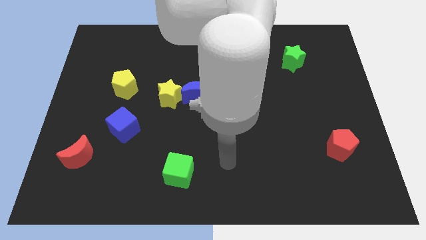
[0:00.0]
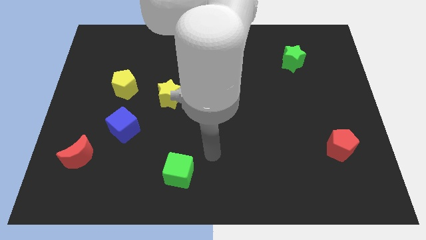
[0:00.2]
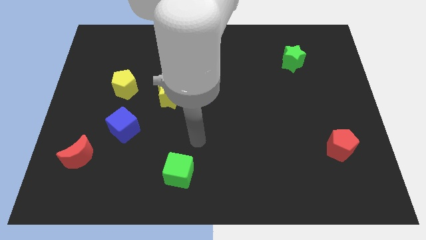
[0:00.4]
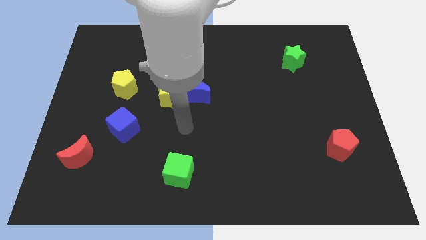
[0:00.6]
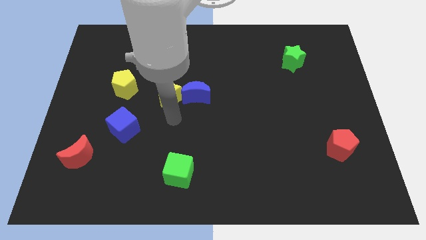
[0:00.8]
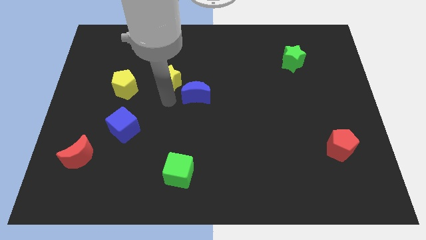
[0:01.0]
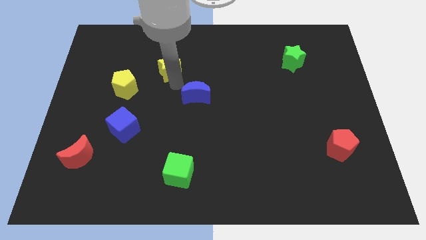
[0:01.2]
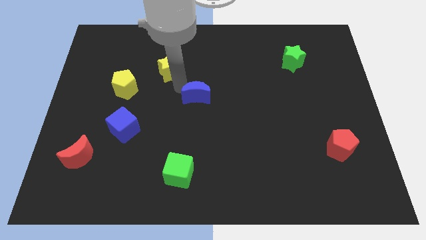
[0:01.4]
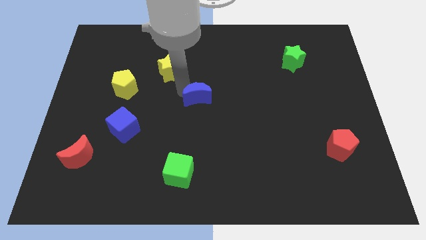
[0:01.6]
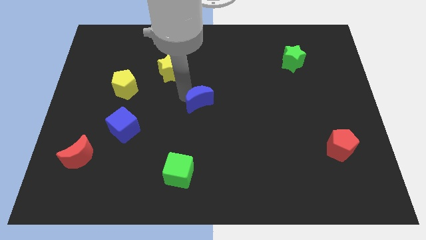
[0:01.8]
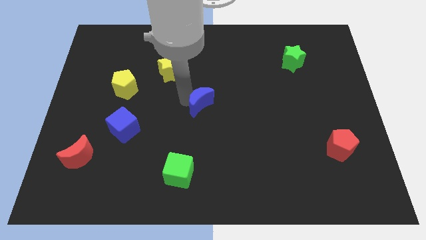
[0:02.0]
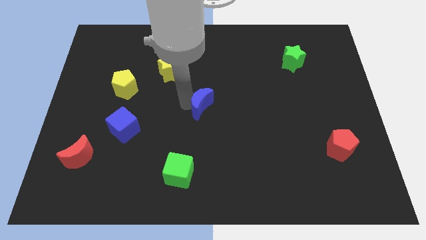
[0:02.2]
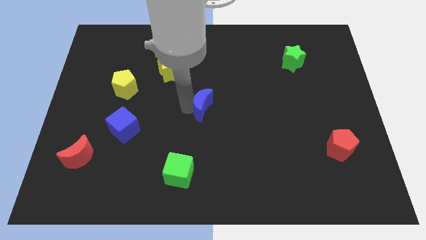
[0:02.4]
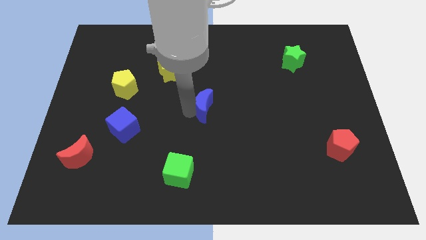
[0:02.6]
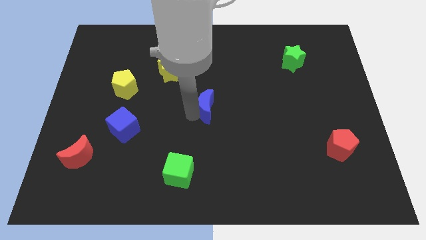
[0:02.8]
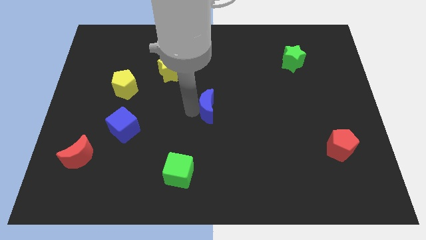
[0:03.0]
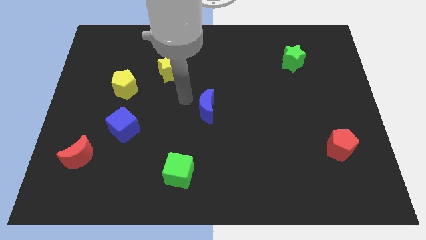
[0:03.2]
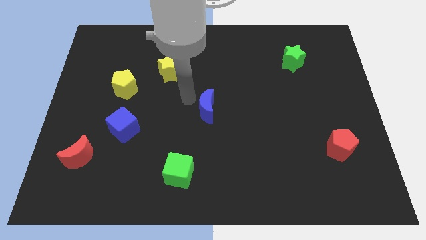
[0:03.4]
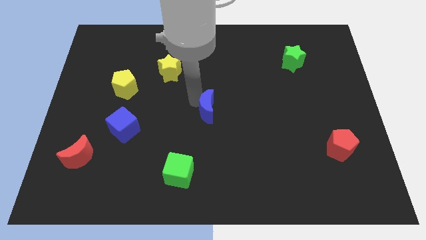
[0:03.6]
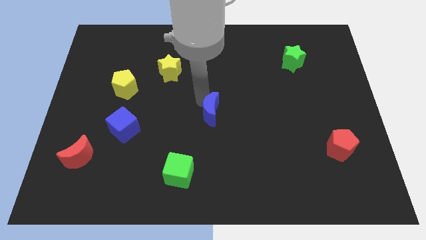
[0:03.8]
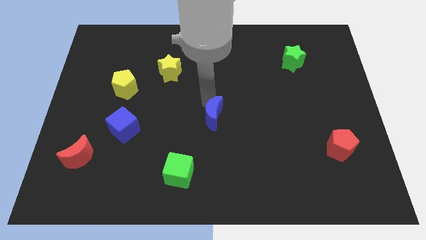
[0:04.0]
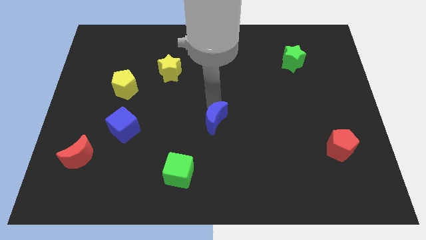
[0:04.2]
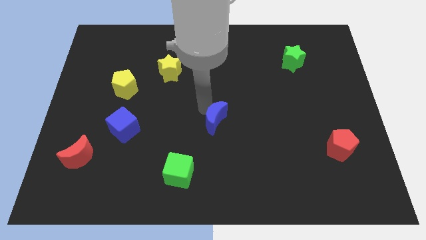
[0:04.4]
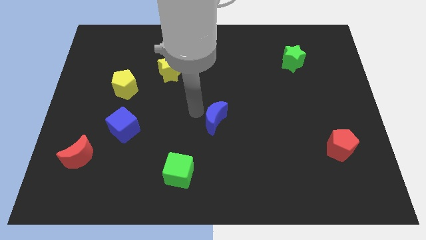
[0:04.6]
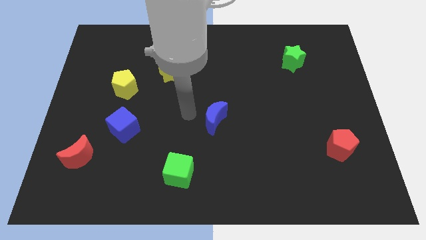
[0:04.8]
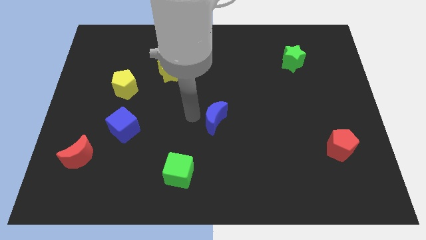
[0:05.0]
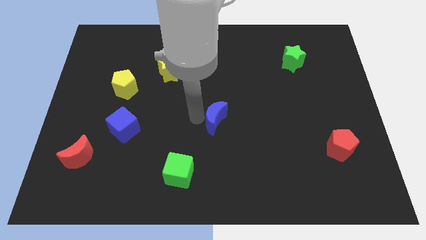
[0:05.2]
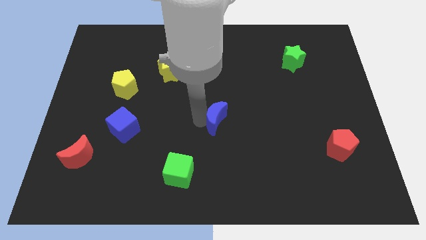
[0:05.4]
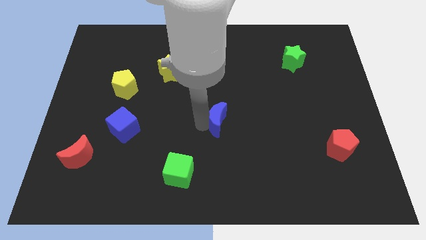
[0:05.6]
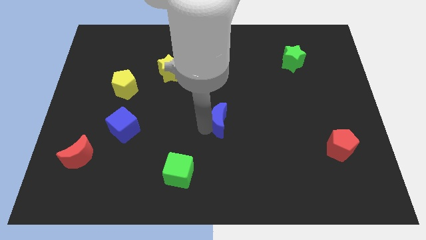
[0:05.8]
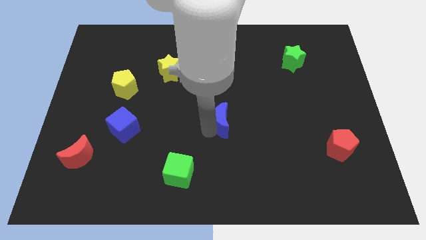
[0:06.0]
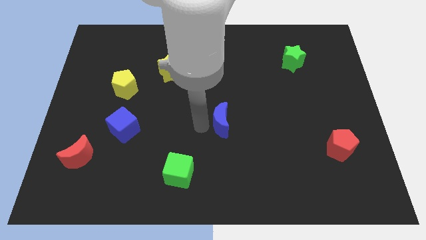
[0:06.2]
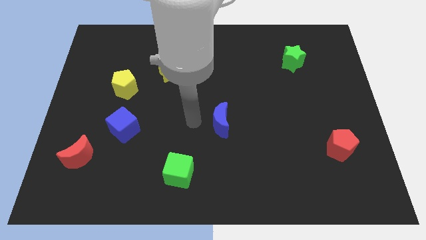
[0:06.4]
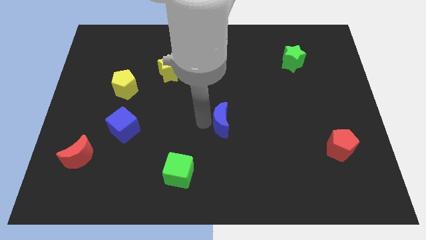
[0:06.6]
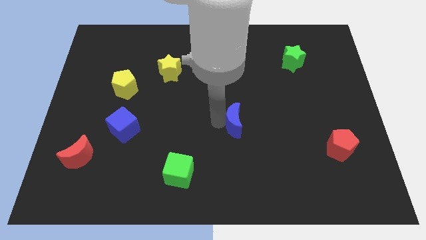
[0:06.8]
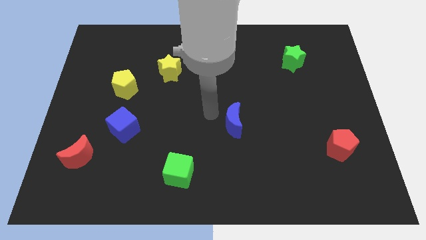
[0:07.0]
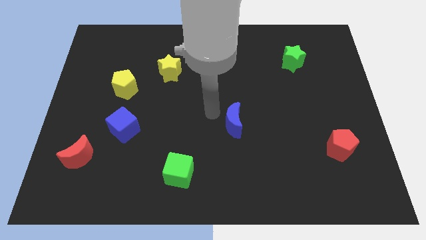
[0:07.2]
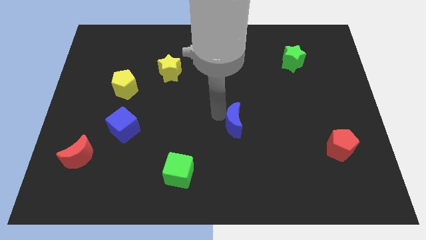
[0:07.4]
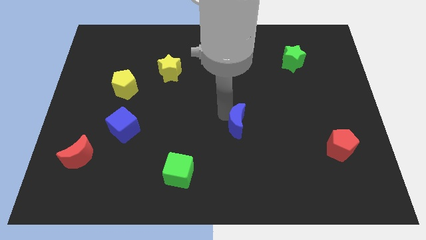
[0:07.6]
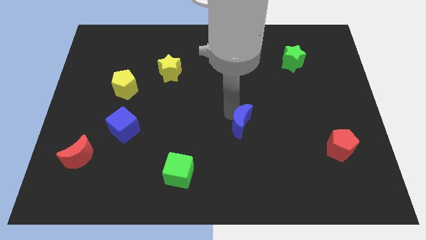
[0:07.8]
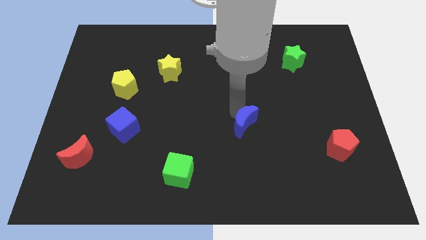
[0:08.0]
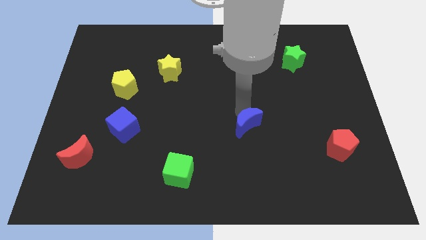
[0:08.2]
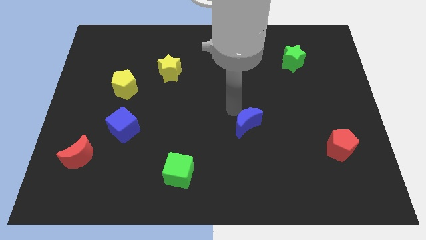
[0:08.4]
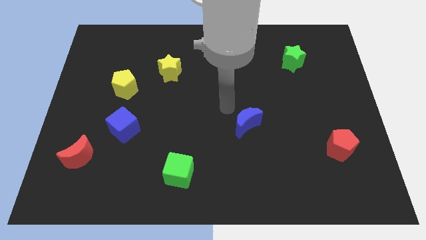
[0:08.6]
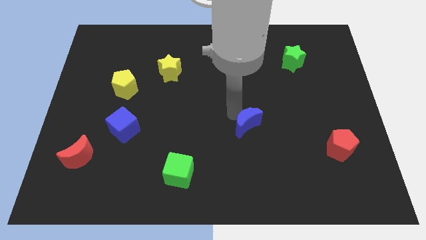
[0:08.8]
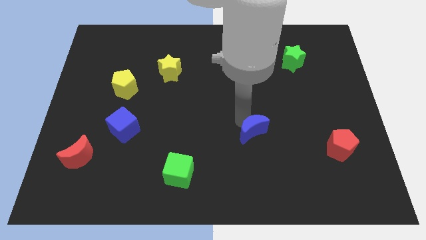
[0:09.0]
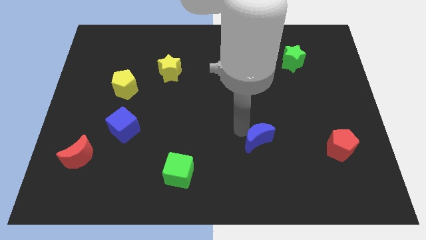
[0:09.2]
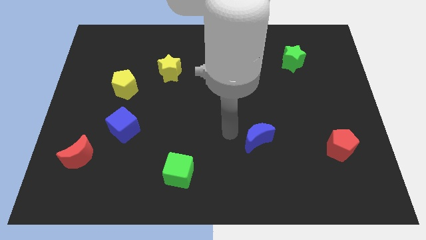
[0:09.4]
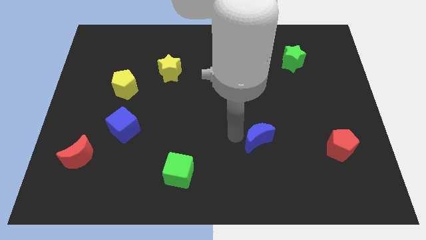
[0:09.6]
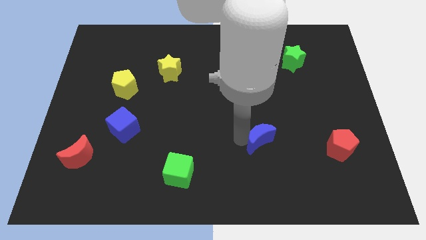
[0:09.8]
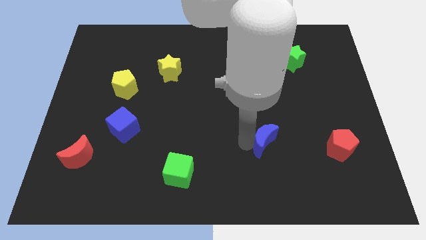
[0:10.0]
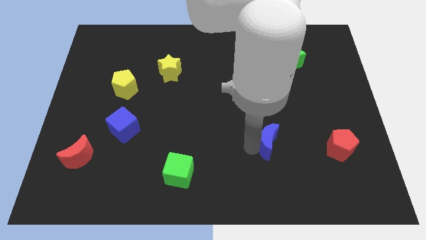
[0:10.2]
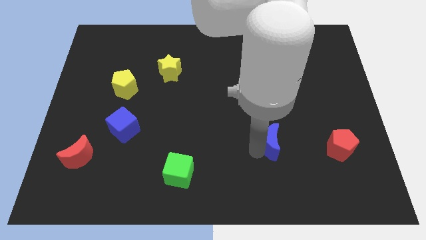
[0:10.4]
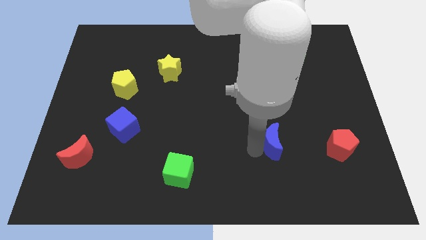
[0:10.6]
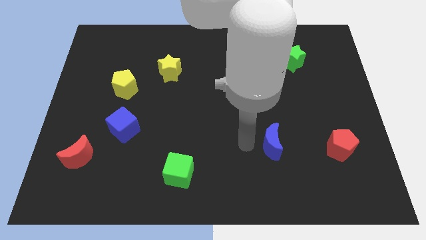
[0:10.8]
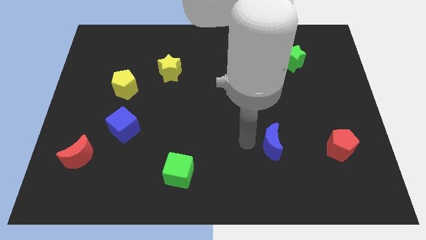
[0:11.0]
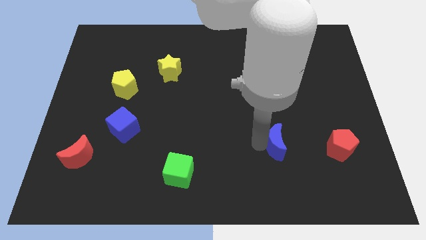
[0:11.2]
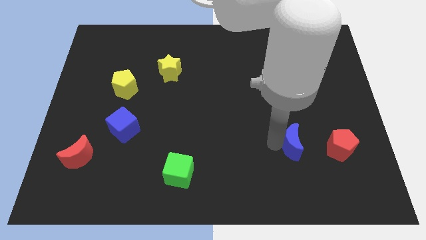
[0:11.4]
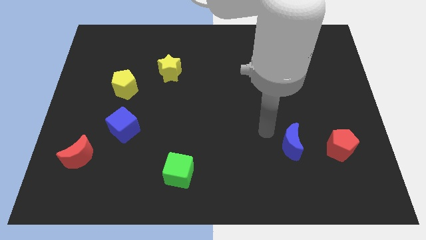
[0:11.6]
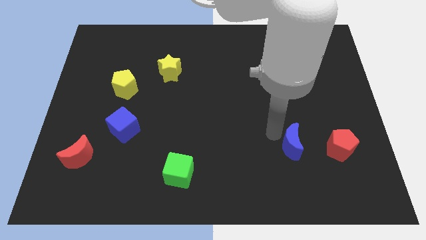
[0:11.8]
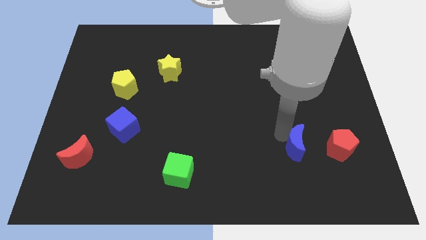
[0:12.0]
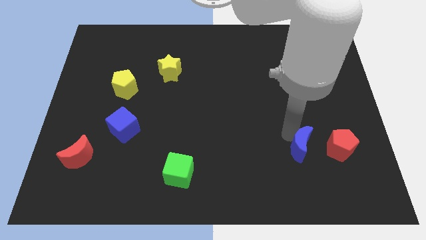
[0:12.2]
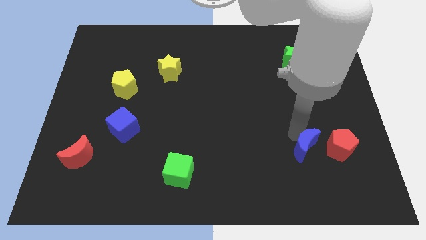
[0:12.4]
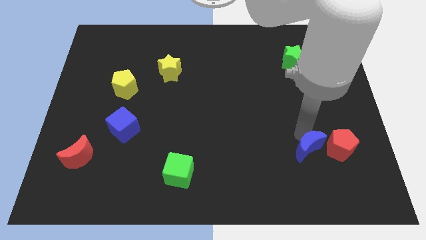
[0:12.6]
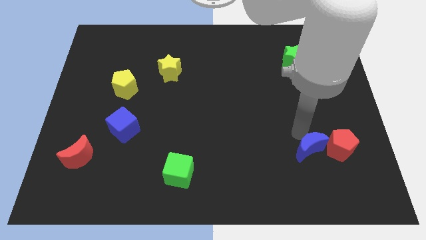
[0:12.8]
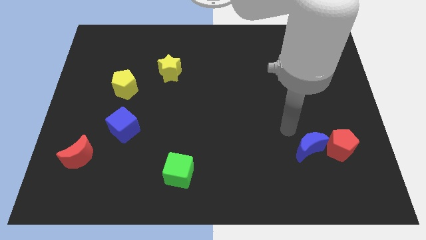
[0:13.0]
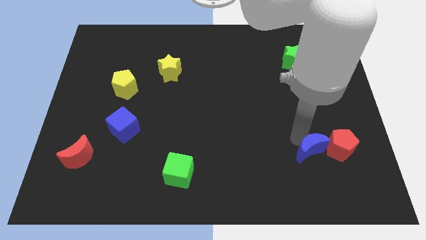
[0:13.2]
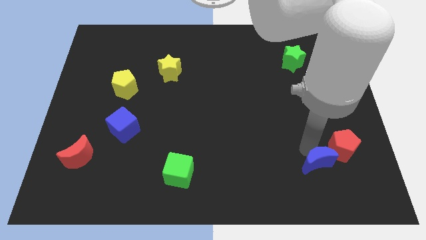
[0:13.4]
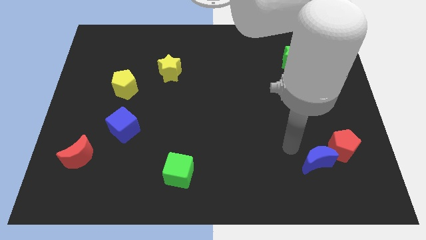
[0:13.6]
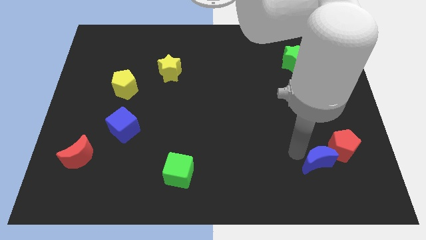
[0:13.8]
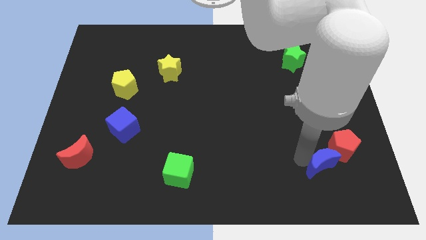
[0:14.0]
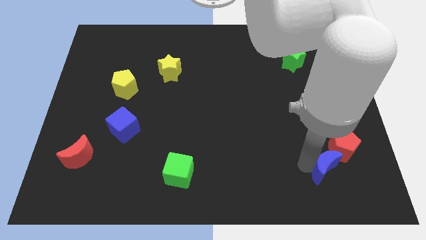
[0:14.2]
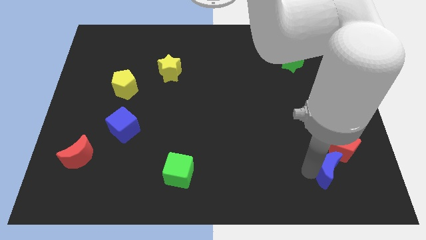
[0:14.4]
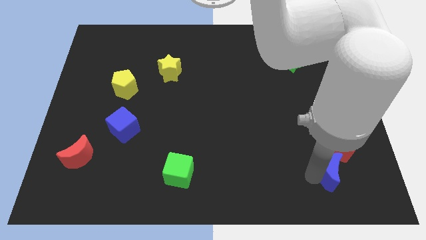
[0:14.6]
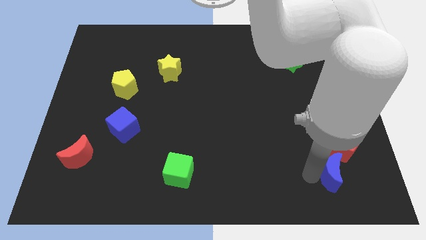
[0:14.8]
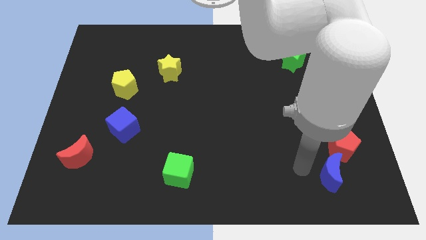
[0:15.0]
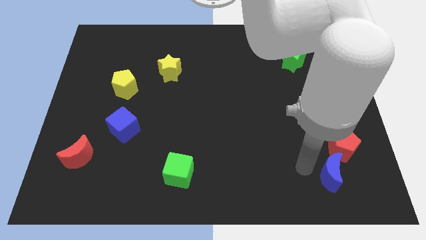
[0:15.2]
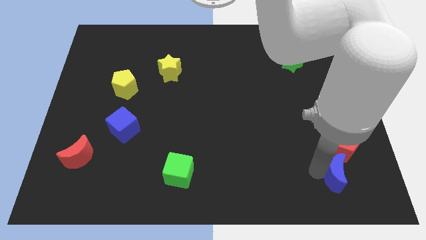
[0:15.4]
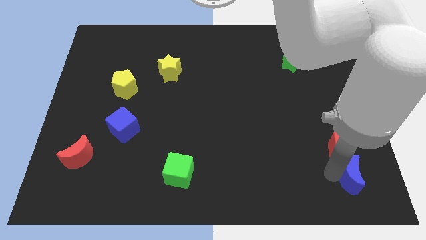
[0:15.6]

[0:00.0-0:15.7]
move the blue moon to the lower right corner
